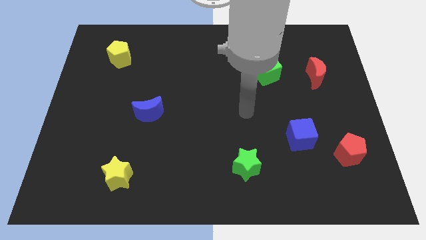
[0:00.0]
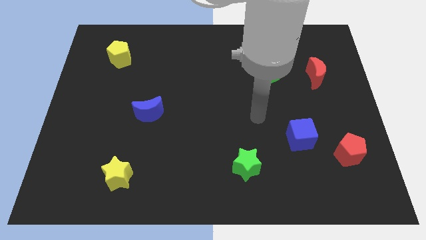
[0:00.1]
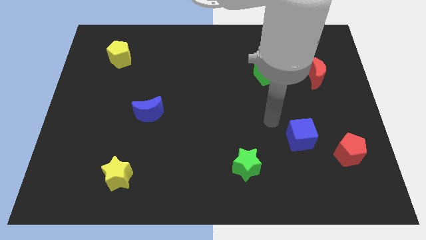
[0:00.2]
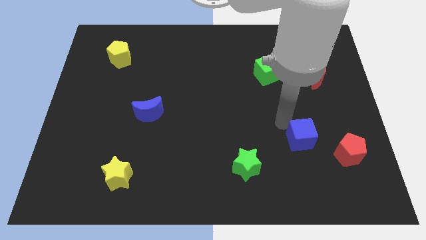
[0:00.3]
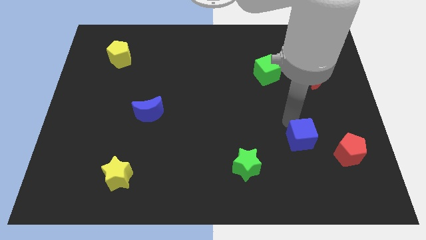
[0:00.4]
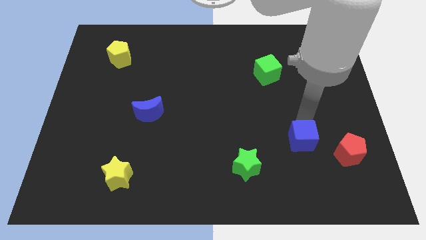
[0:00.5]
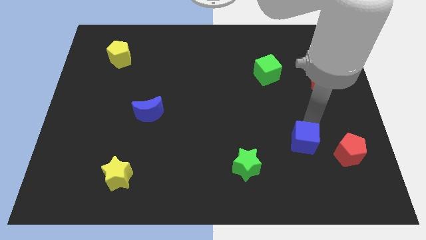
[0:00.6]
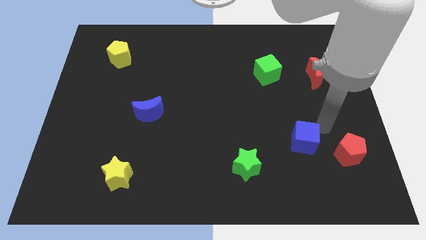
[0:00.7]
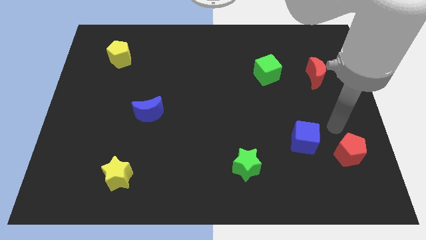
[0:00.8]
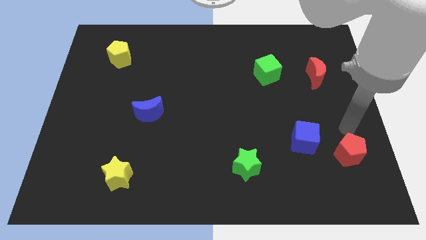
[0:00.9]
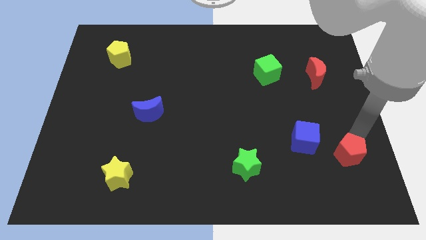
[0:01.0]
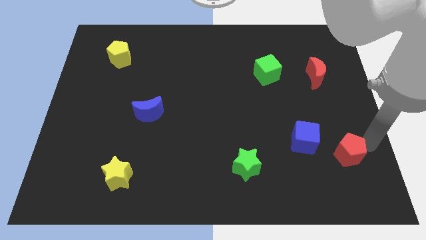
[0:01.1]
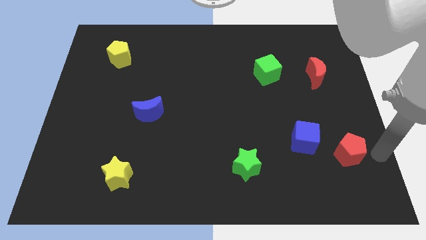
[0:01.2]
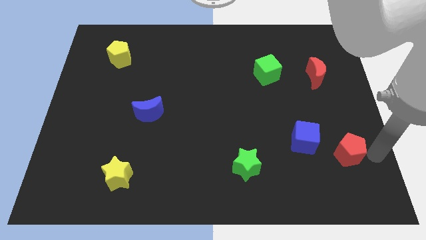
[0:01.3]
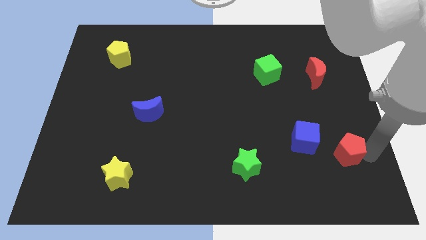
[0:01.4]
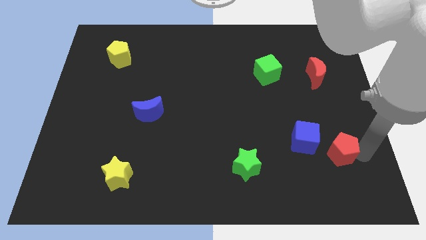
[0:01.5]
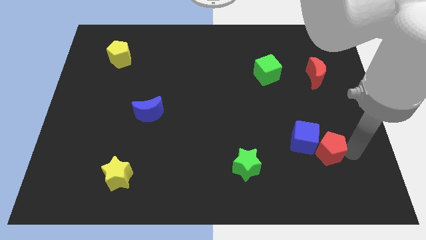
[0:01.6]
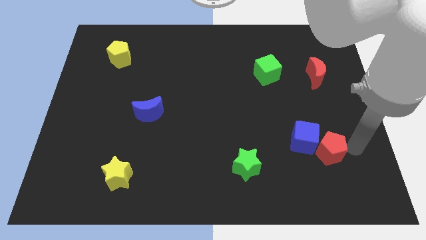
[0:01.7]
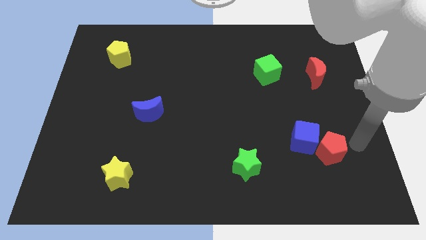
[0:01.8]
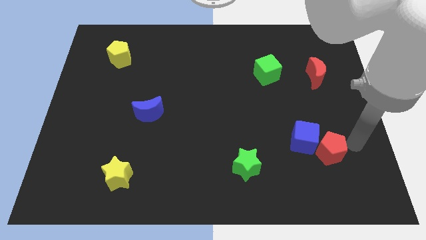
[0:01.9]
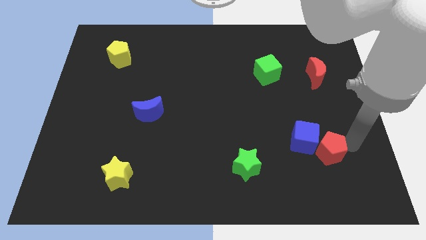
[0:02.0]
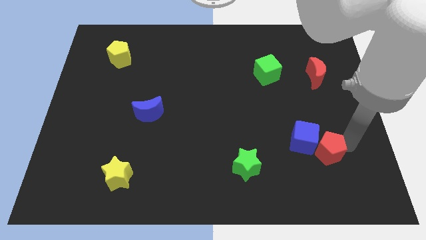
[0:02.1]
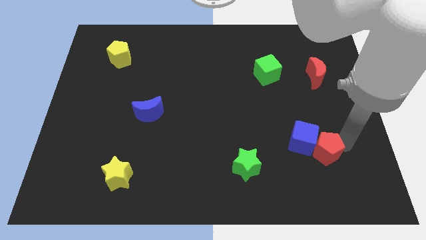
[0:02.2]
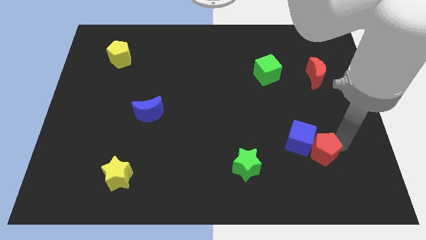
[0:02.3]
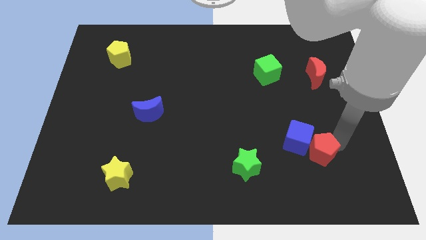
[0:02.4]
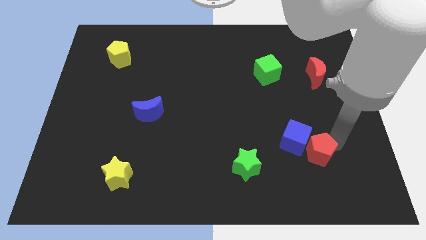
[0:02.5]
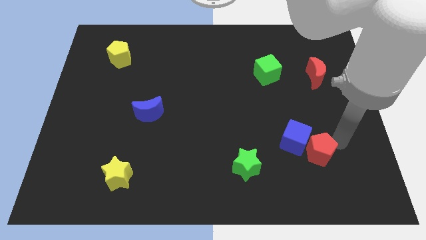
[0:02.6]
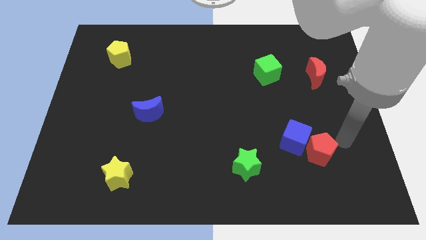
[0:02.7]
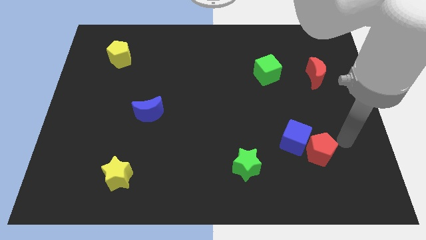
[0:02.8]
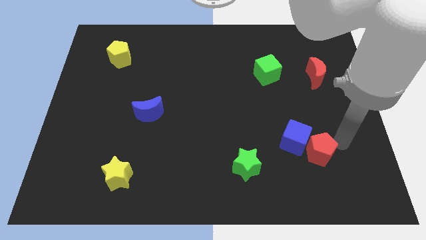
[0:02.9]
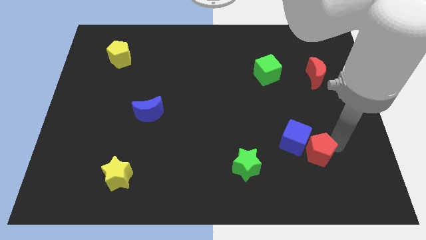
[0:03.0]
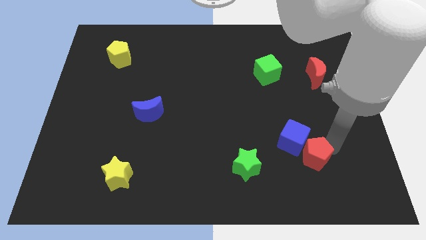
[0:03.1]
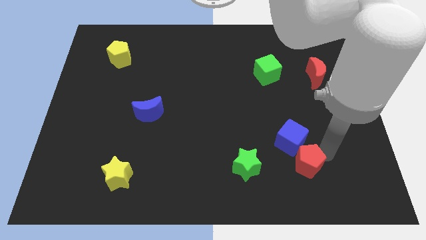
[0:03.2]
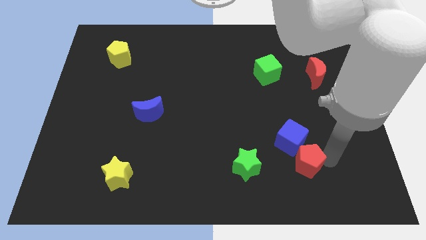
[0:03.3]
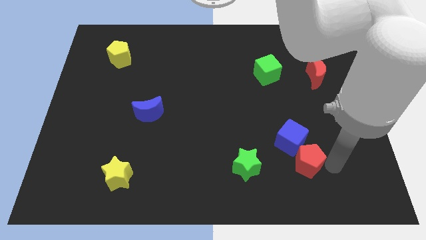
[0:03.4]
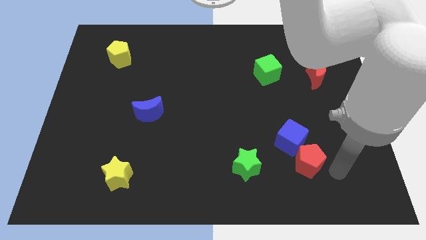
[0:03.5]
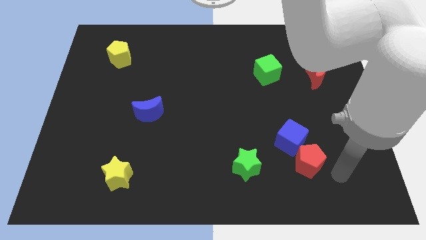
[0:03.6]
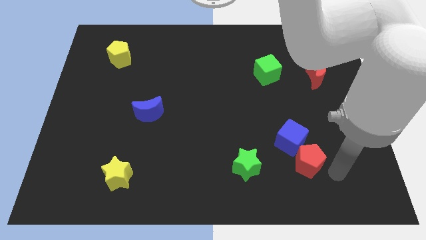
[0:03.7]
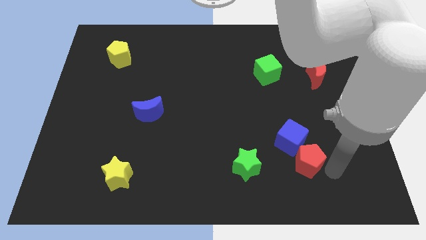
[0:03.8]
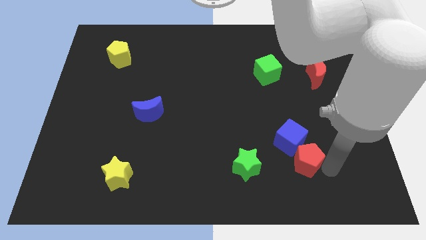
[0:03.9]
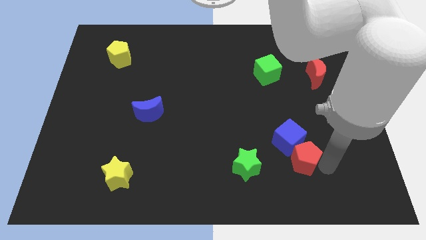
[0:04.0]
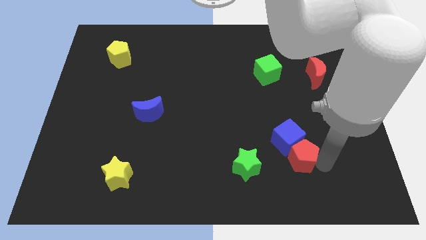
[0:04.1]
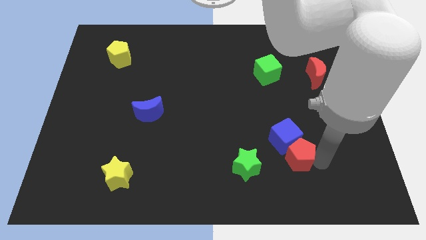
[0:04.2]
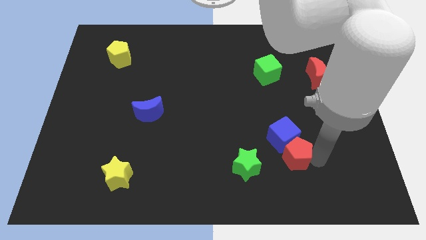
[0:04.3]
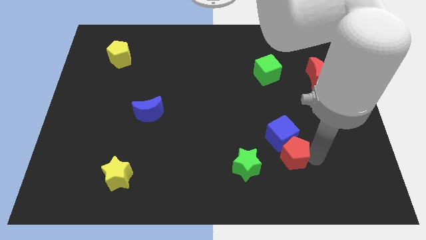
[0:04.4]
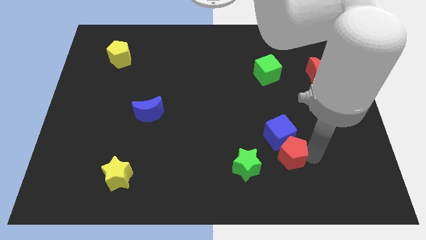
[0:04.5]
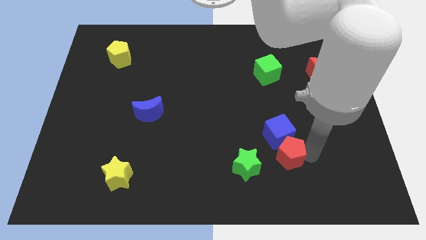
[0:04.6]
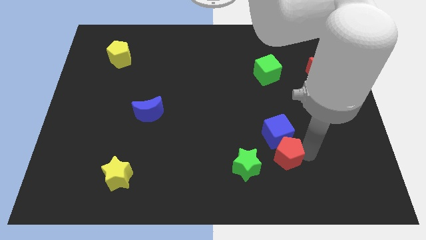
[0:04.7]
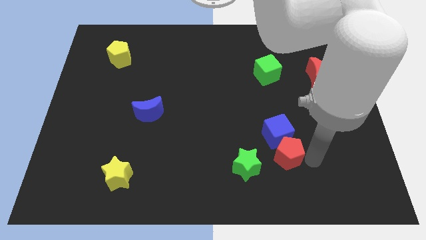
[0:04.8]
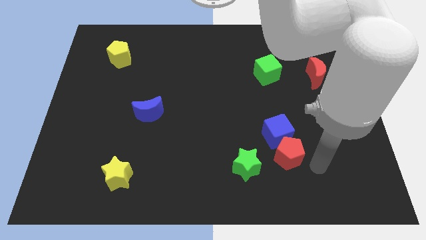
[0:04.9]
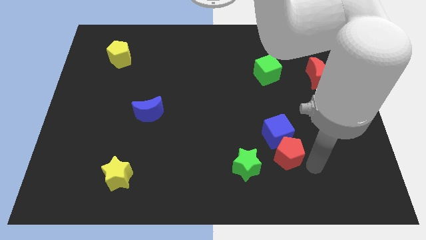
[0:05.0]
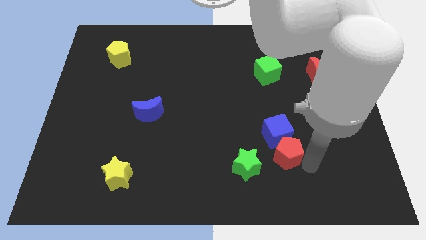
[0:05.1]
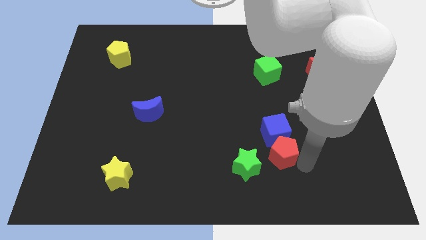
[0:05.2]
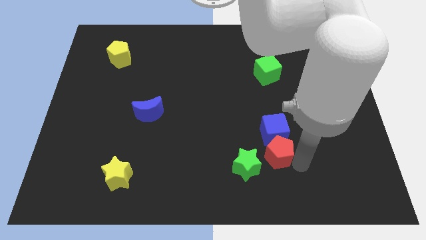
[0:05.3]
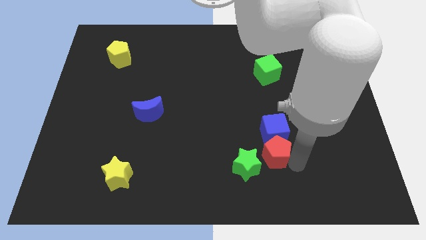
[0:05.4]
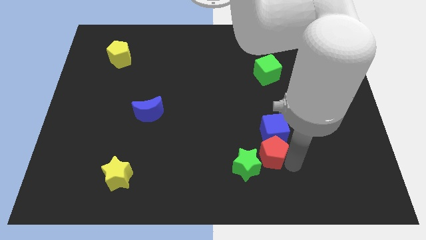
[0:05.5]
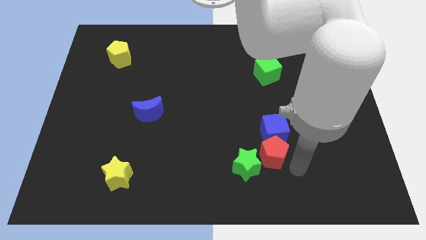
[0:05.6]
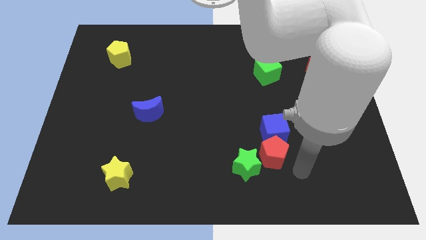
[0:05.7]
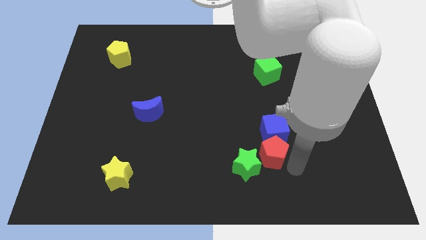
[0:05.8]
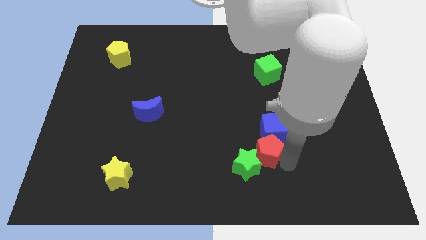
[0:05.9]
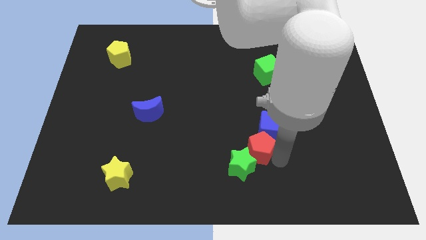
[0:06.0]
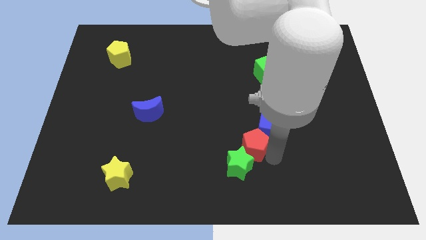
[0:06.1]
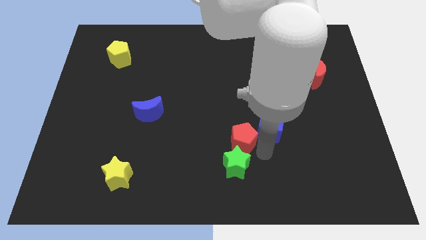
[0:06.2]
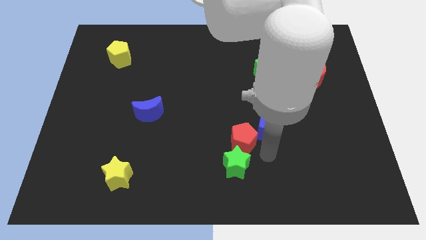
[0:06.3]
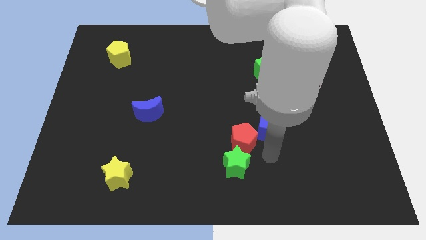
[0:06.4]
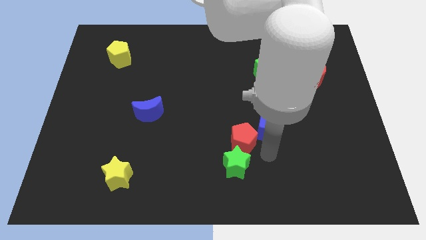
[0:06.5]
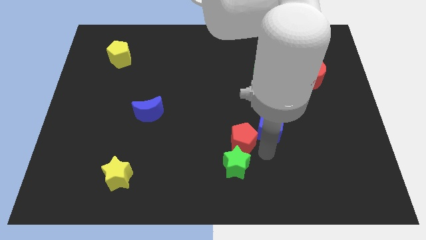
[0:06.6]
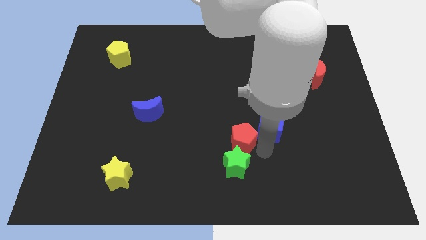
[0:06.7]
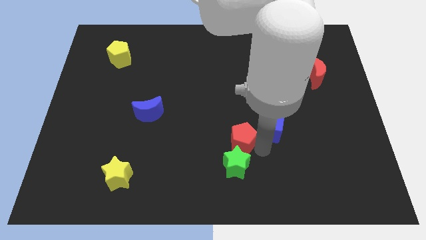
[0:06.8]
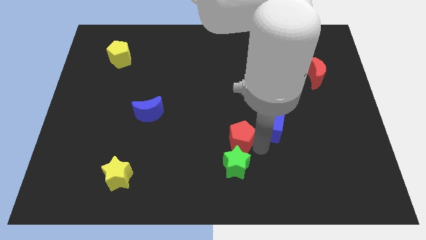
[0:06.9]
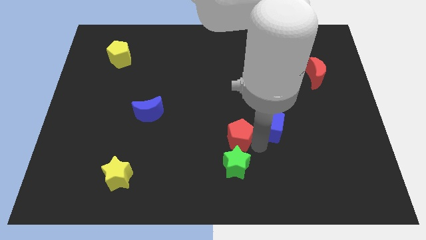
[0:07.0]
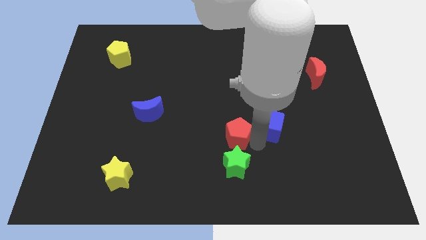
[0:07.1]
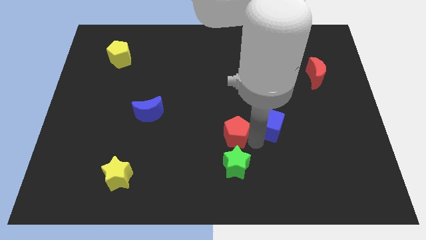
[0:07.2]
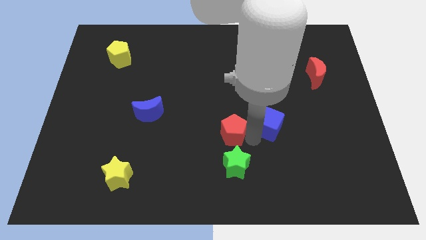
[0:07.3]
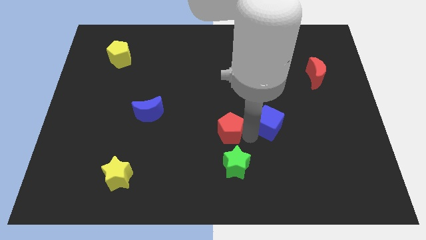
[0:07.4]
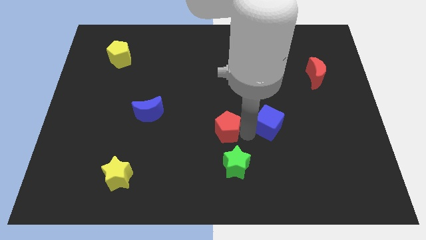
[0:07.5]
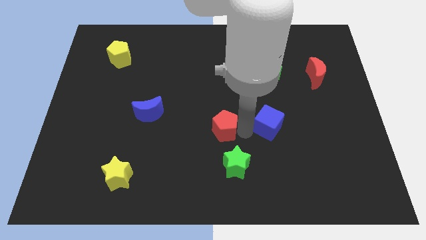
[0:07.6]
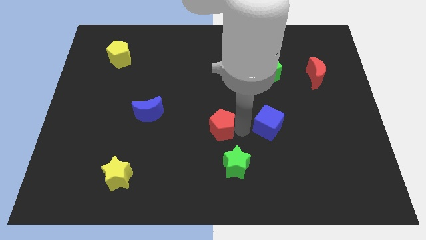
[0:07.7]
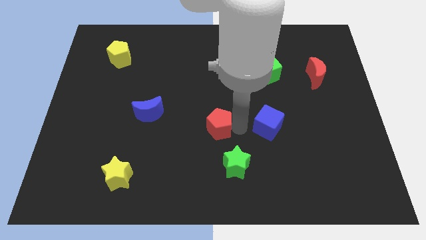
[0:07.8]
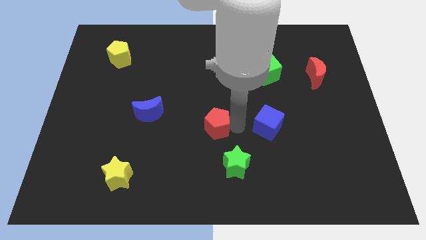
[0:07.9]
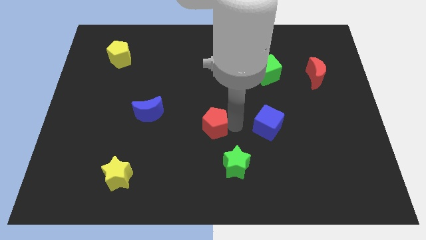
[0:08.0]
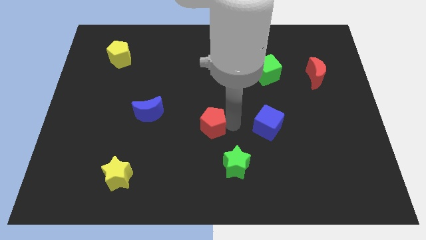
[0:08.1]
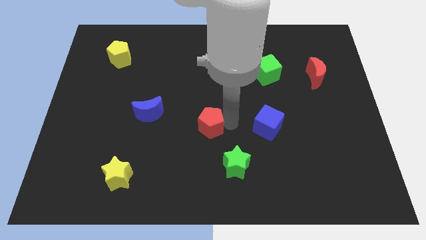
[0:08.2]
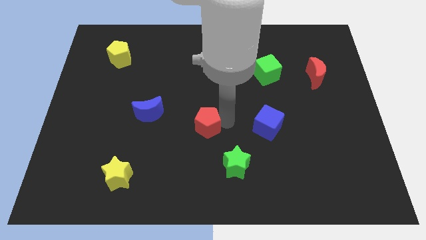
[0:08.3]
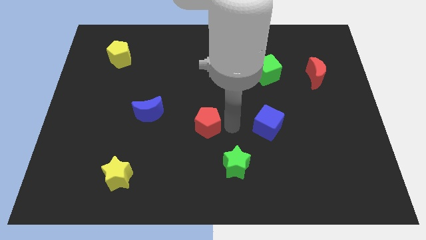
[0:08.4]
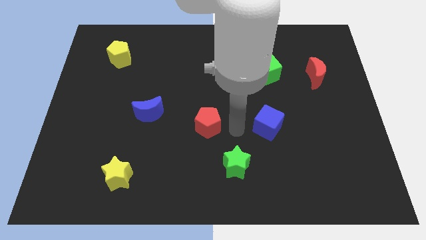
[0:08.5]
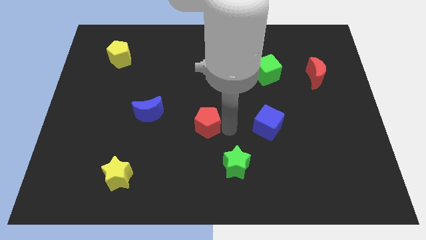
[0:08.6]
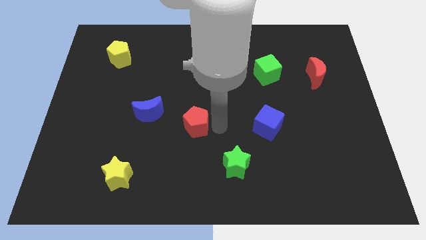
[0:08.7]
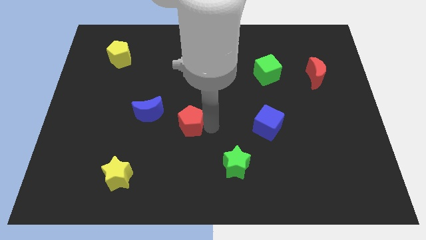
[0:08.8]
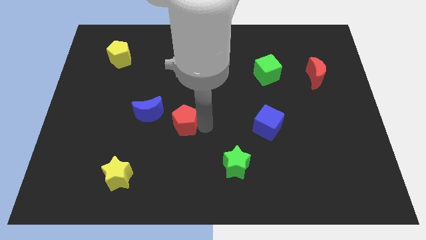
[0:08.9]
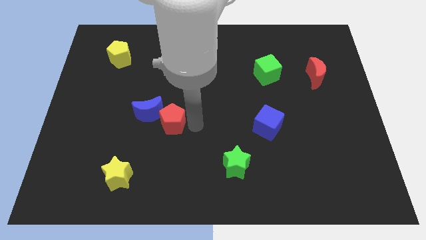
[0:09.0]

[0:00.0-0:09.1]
push the red pentagon close to the blue moon
